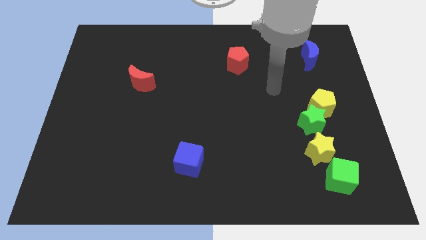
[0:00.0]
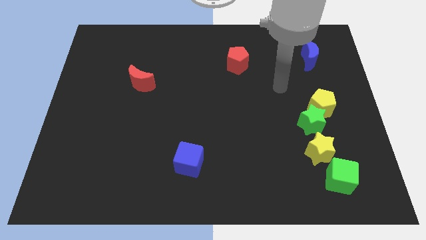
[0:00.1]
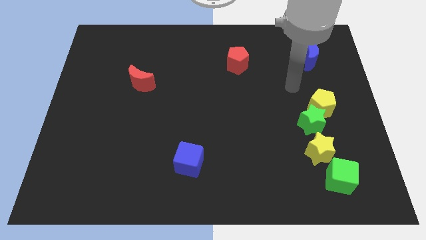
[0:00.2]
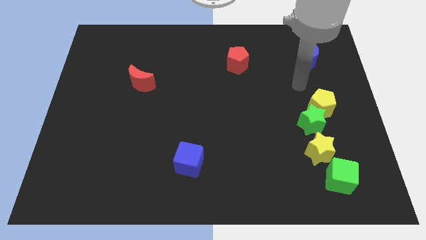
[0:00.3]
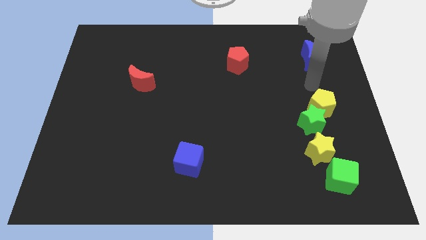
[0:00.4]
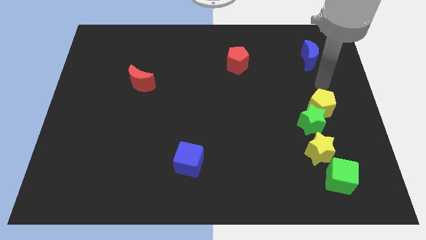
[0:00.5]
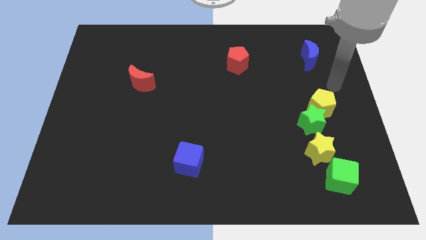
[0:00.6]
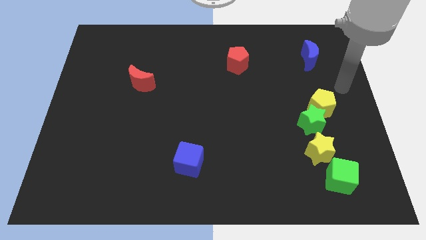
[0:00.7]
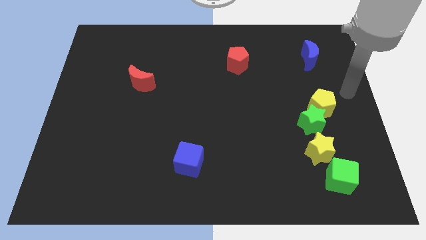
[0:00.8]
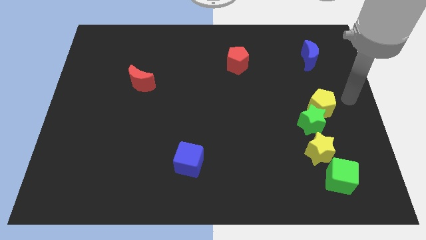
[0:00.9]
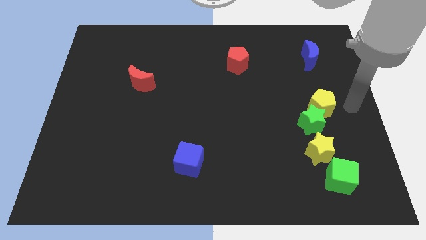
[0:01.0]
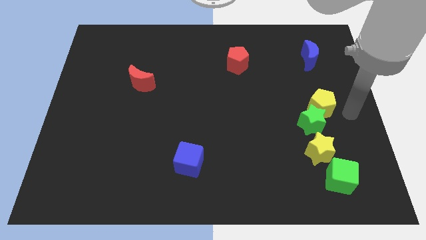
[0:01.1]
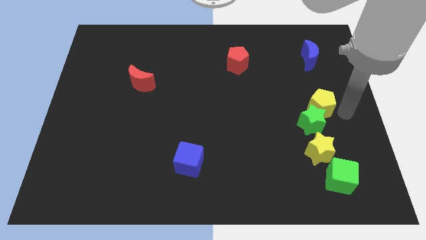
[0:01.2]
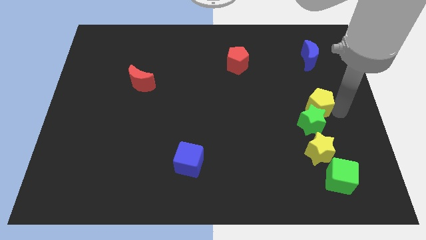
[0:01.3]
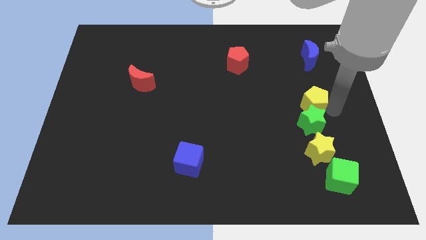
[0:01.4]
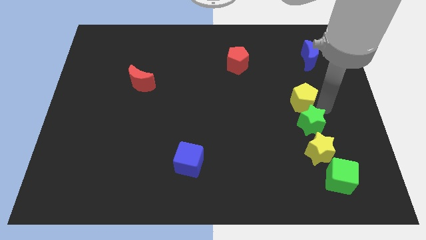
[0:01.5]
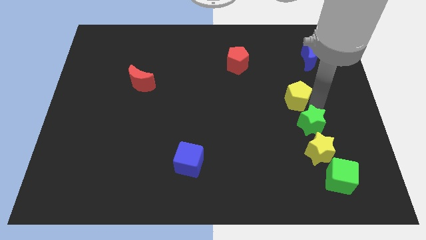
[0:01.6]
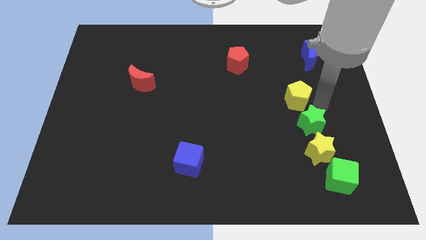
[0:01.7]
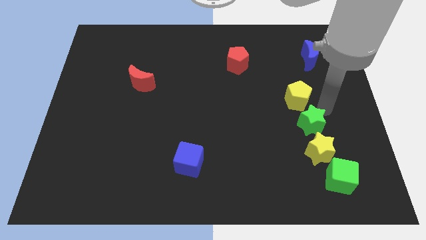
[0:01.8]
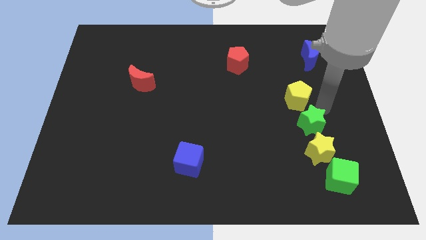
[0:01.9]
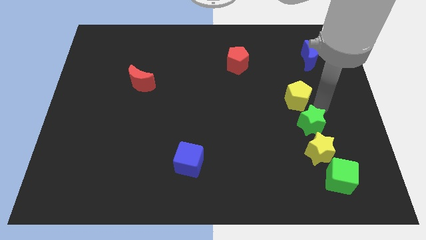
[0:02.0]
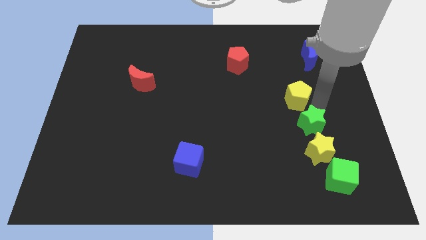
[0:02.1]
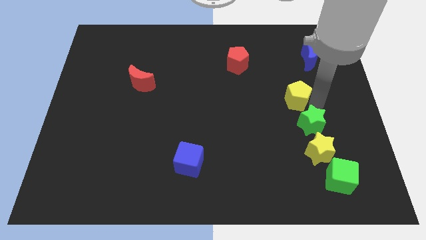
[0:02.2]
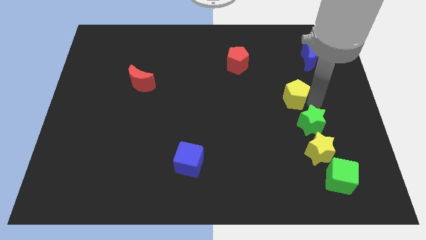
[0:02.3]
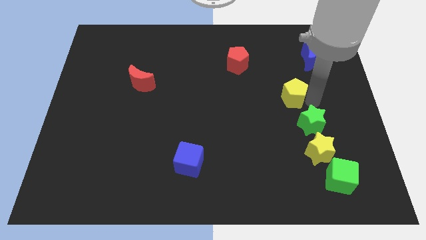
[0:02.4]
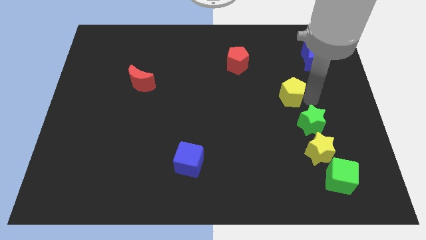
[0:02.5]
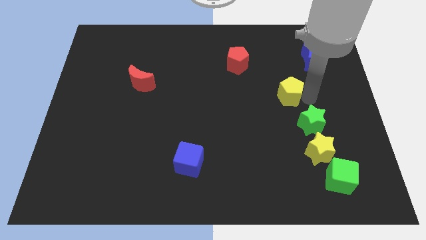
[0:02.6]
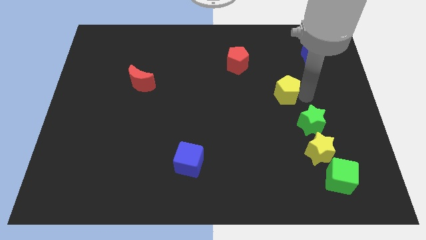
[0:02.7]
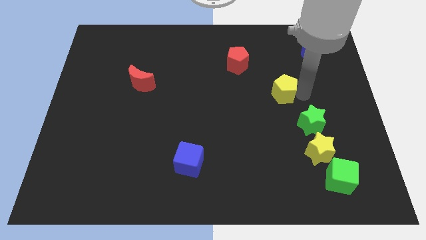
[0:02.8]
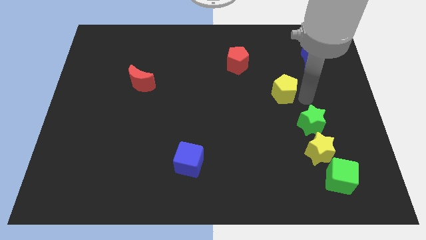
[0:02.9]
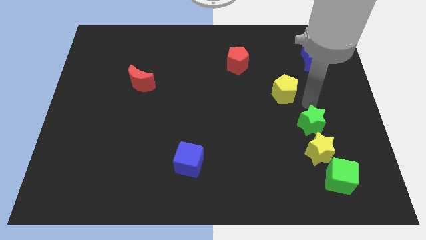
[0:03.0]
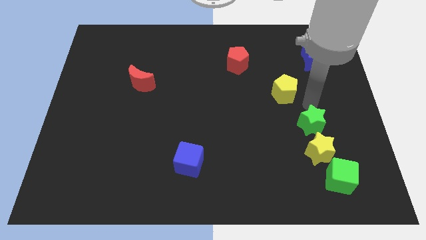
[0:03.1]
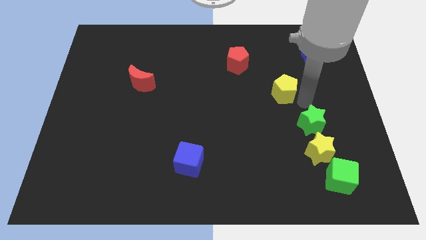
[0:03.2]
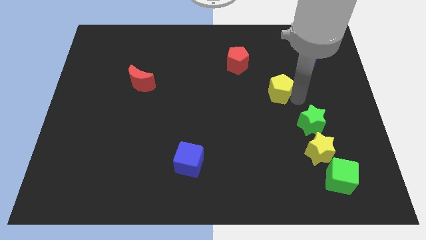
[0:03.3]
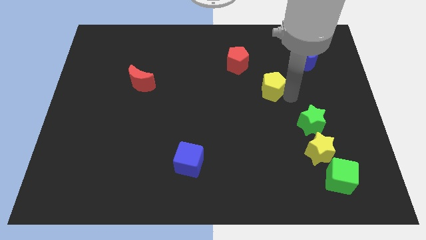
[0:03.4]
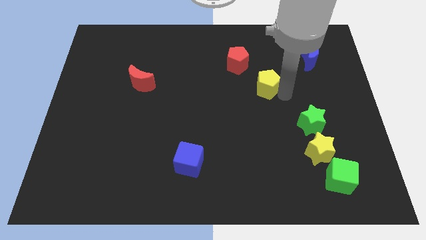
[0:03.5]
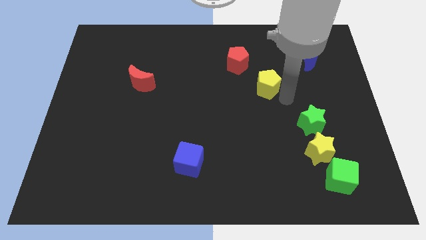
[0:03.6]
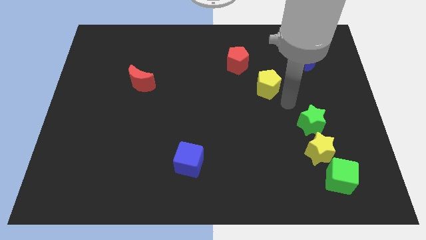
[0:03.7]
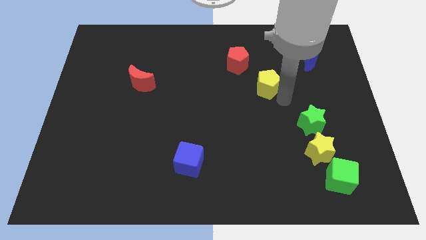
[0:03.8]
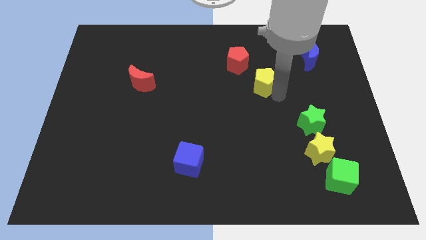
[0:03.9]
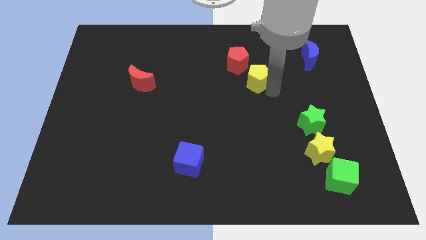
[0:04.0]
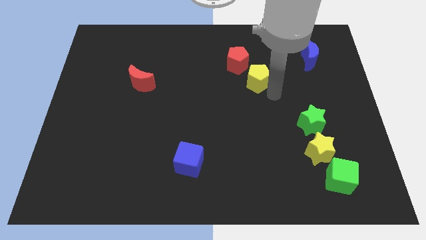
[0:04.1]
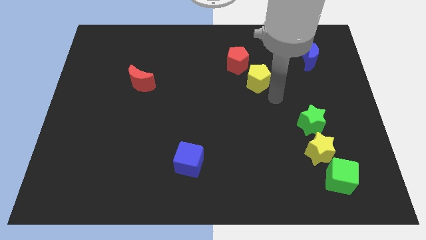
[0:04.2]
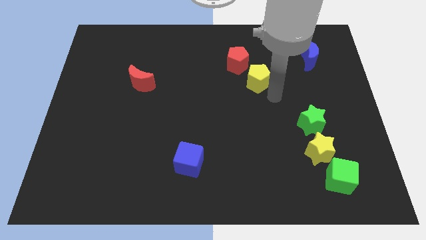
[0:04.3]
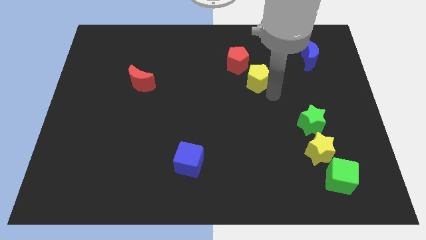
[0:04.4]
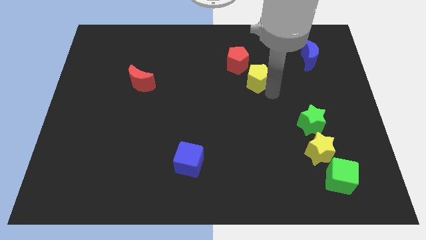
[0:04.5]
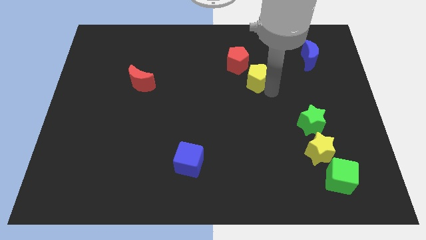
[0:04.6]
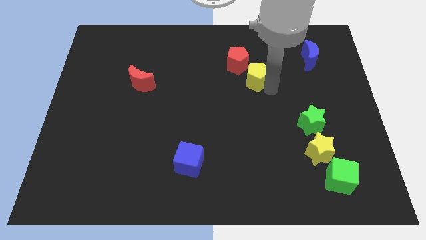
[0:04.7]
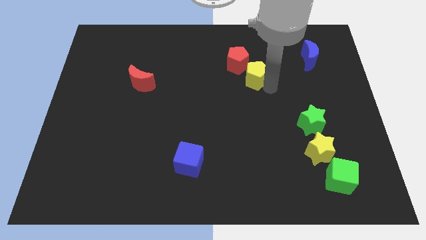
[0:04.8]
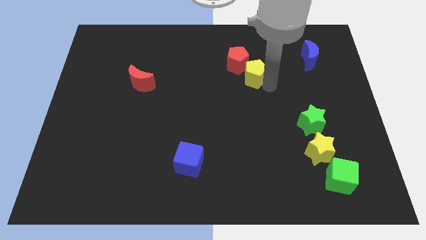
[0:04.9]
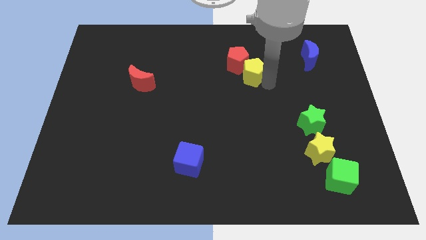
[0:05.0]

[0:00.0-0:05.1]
push the yellow pentagon close to the red pentagon

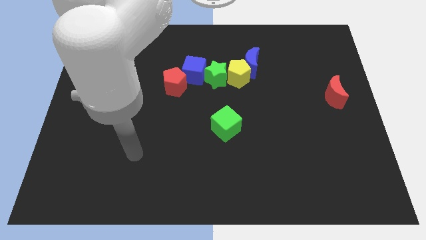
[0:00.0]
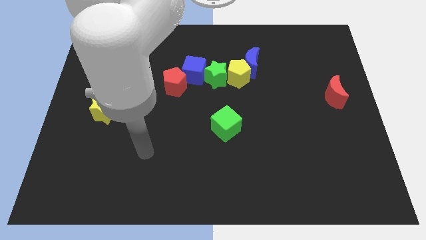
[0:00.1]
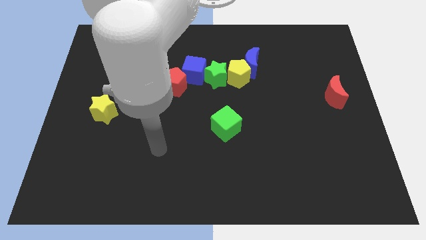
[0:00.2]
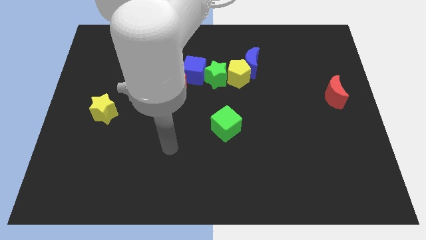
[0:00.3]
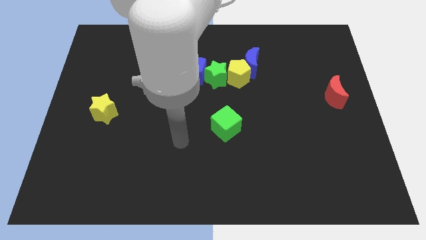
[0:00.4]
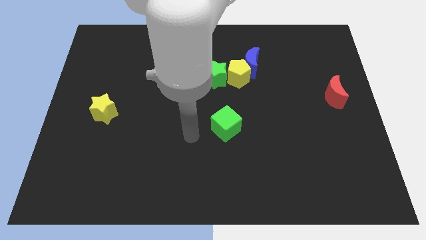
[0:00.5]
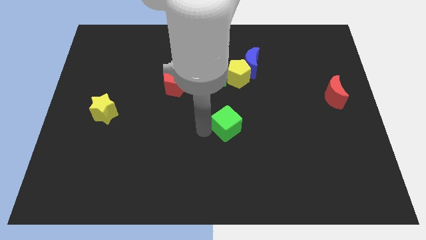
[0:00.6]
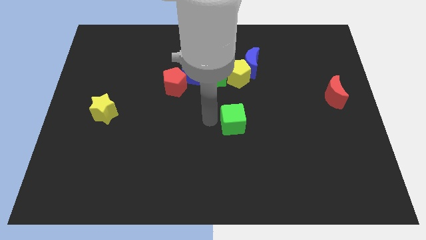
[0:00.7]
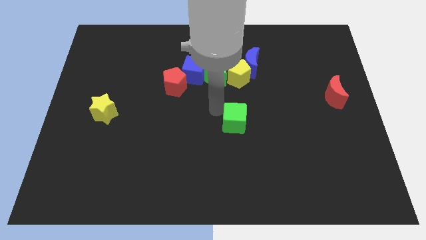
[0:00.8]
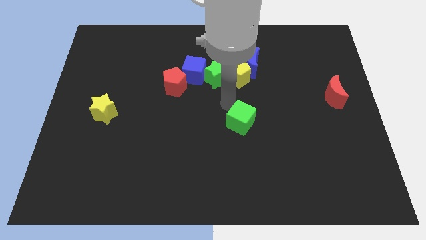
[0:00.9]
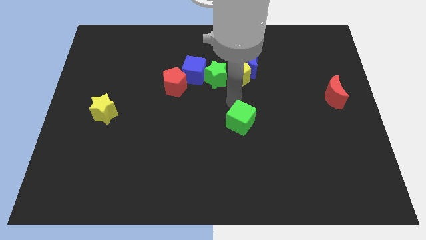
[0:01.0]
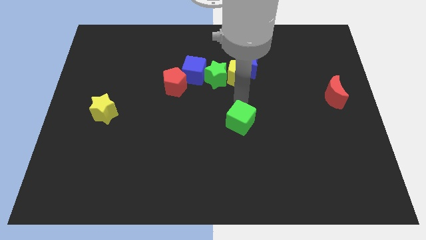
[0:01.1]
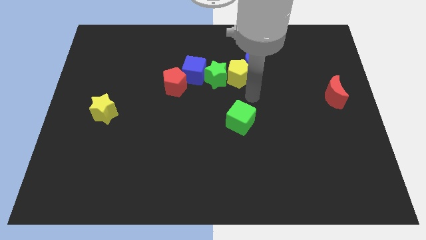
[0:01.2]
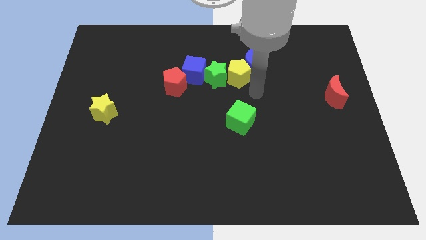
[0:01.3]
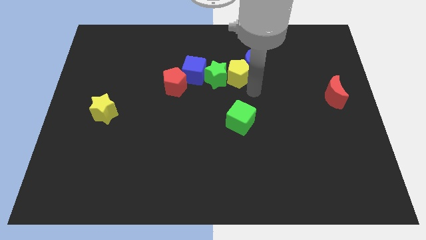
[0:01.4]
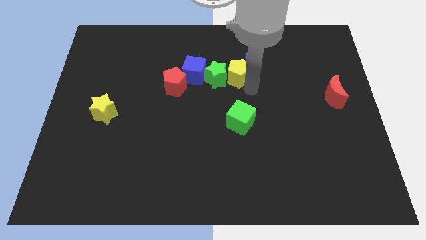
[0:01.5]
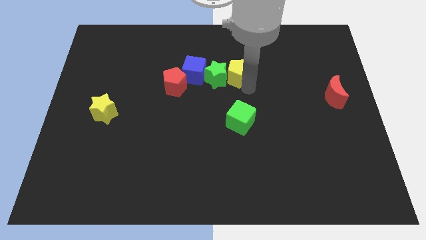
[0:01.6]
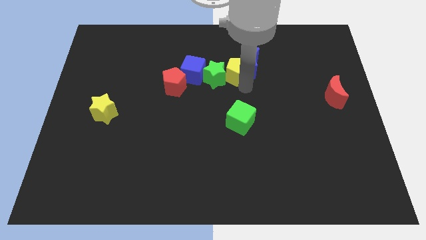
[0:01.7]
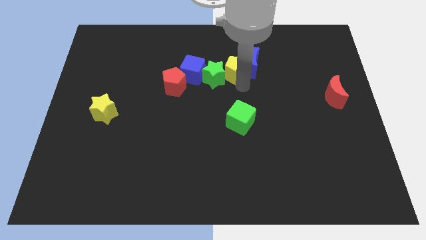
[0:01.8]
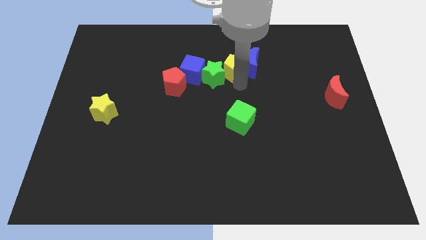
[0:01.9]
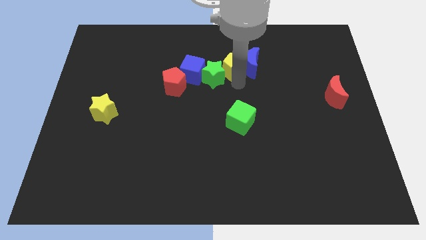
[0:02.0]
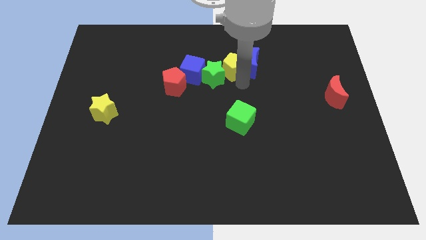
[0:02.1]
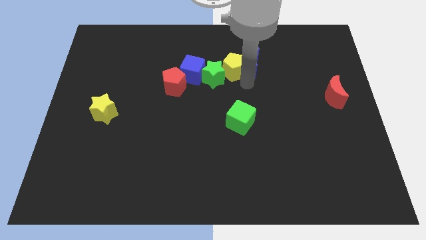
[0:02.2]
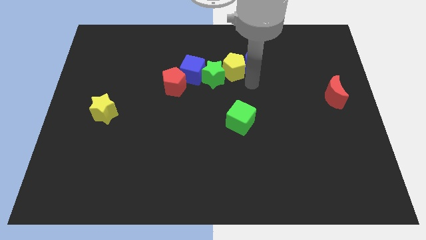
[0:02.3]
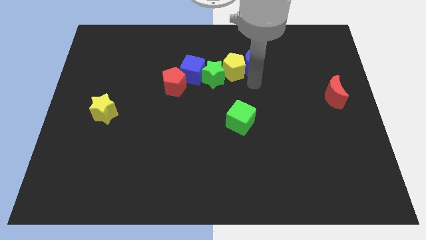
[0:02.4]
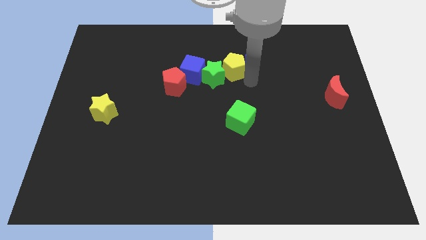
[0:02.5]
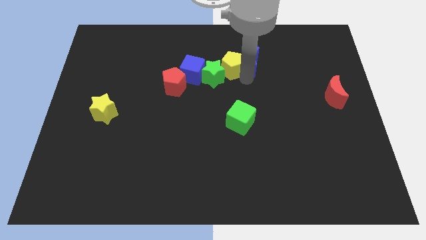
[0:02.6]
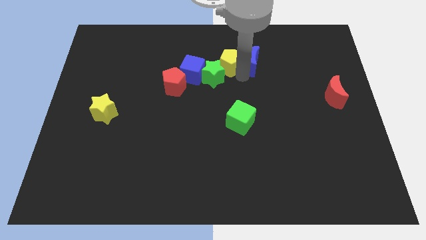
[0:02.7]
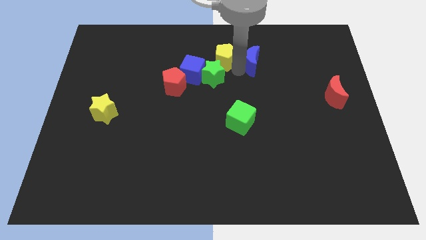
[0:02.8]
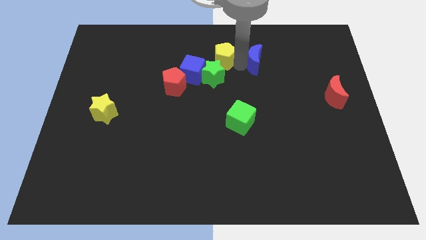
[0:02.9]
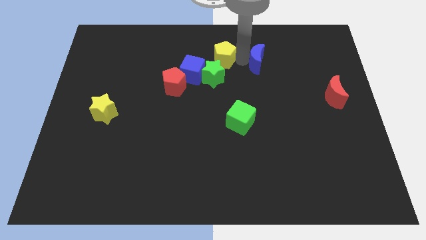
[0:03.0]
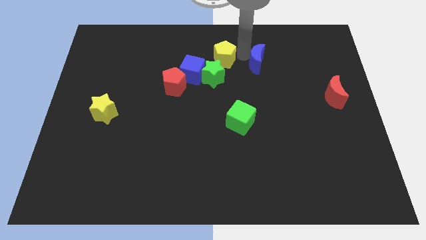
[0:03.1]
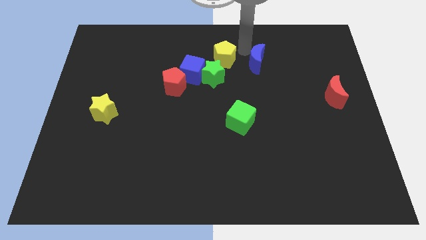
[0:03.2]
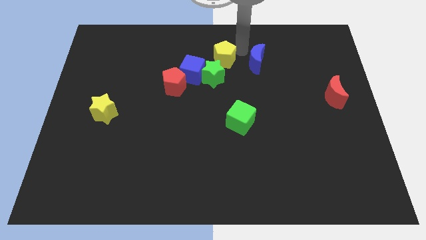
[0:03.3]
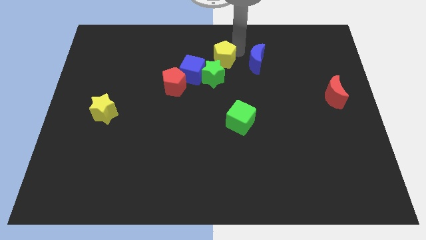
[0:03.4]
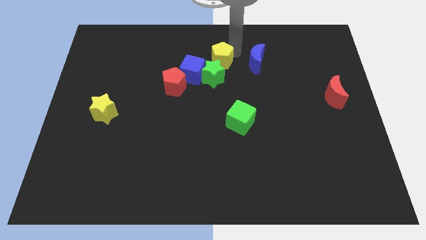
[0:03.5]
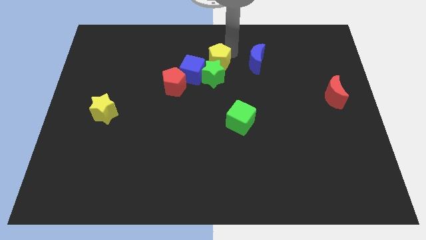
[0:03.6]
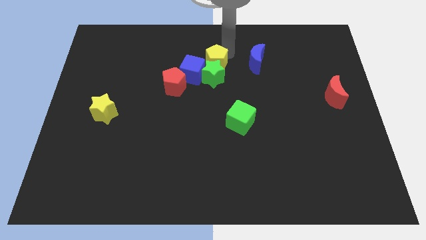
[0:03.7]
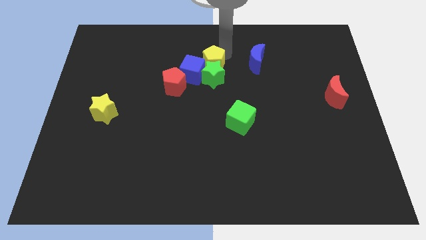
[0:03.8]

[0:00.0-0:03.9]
slide the yellow pentagon towards the blue cube
